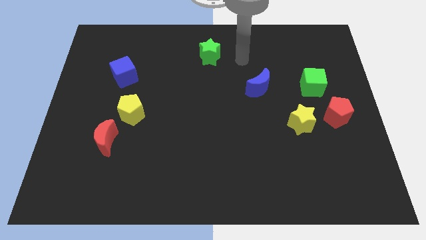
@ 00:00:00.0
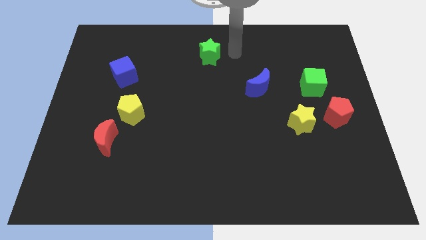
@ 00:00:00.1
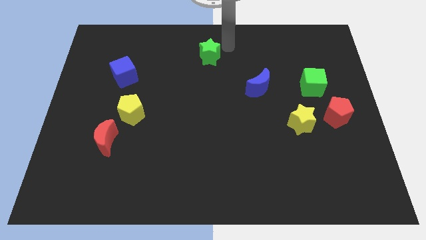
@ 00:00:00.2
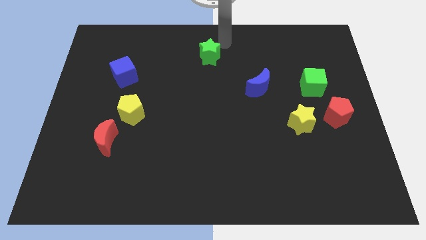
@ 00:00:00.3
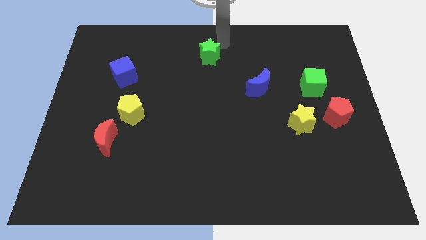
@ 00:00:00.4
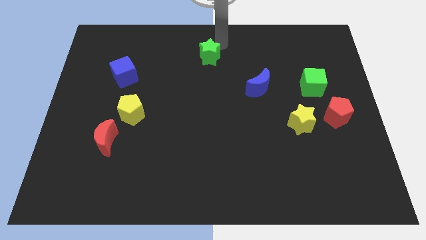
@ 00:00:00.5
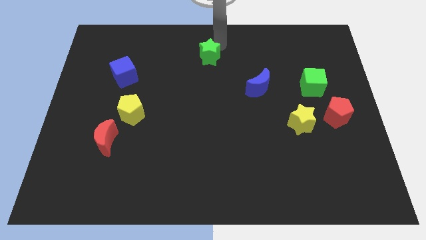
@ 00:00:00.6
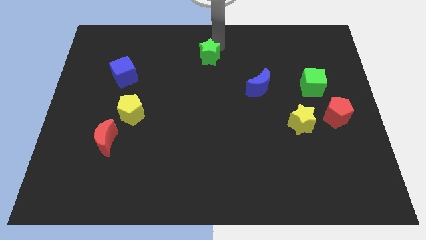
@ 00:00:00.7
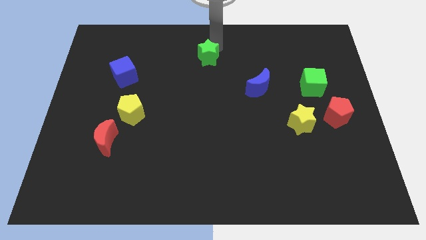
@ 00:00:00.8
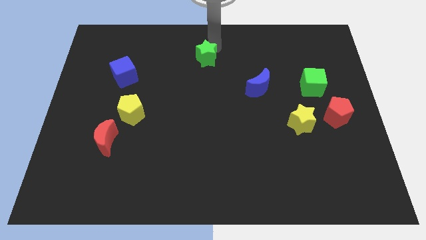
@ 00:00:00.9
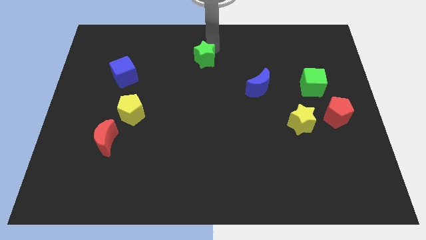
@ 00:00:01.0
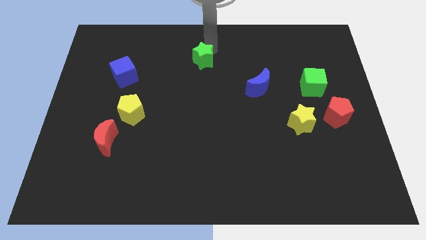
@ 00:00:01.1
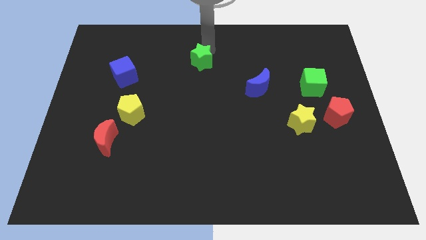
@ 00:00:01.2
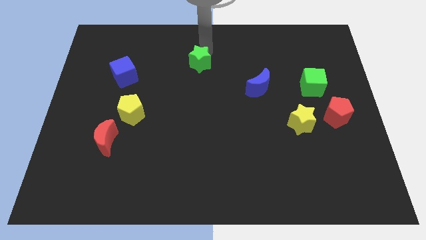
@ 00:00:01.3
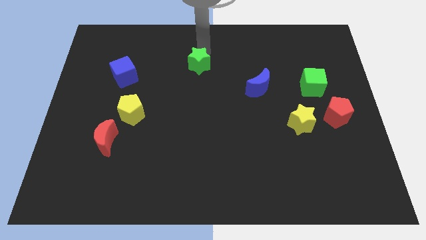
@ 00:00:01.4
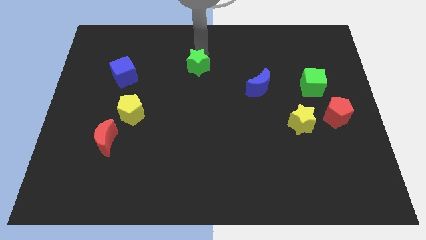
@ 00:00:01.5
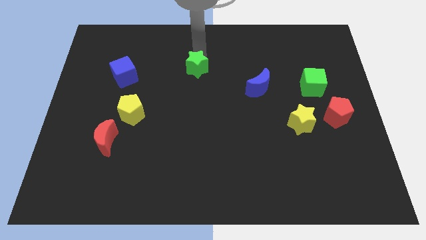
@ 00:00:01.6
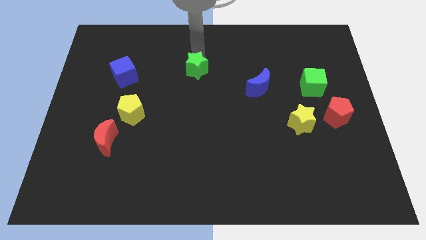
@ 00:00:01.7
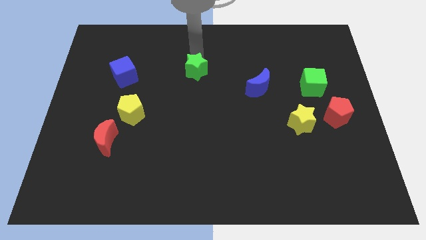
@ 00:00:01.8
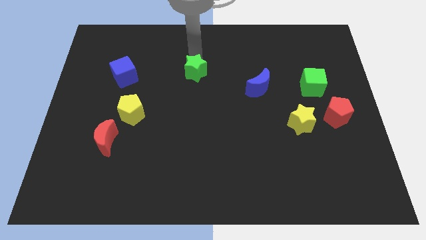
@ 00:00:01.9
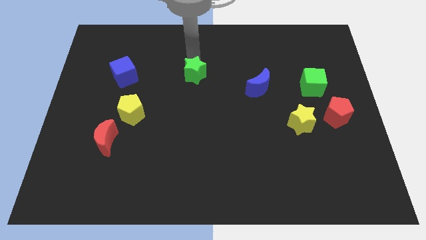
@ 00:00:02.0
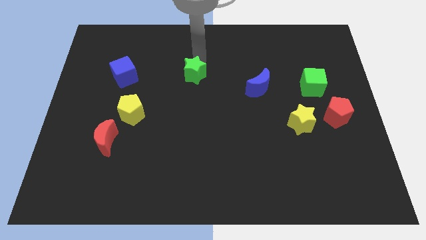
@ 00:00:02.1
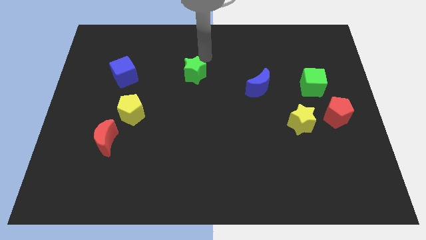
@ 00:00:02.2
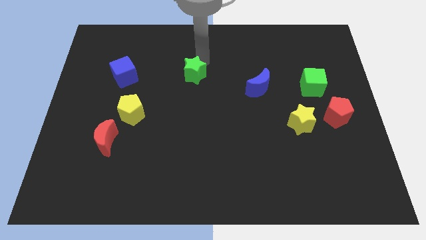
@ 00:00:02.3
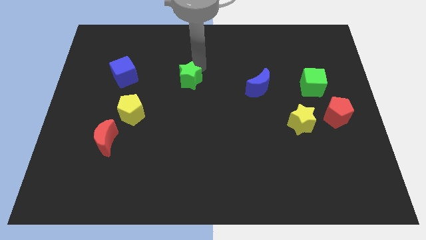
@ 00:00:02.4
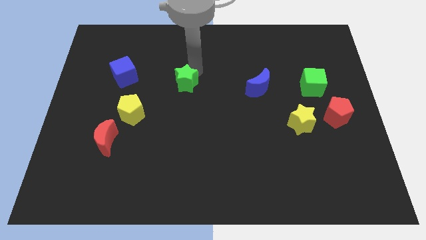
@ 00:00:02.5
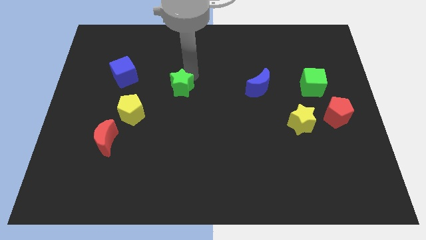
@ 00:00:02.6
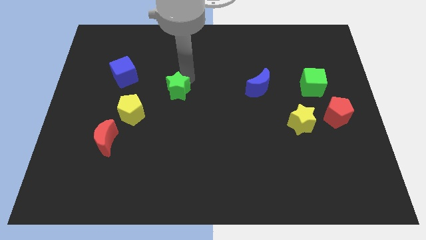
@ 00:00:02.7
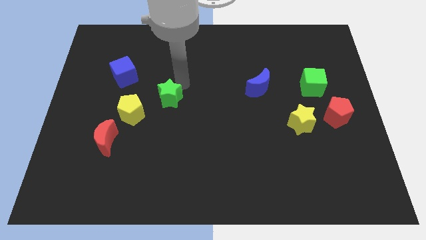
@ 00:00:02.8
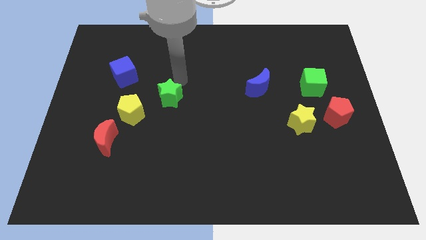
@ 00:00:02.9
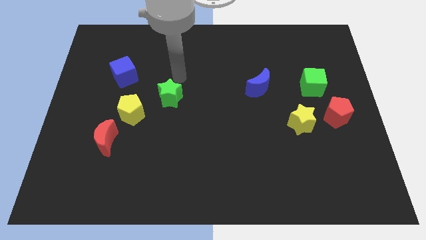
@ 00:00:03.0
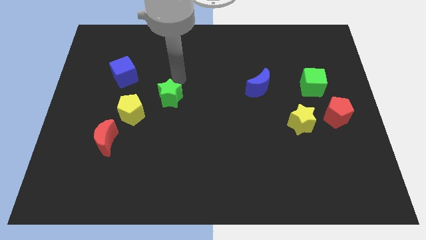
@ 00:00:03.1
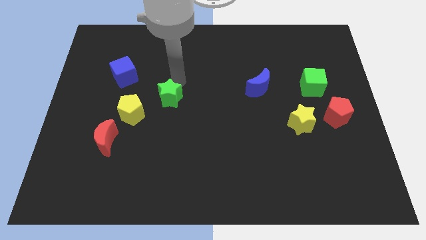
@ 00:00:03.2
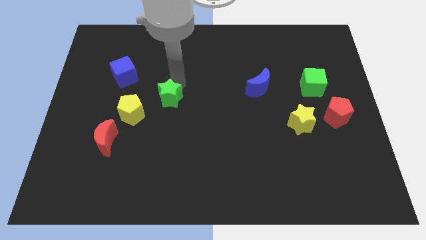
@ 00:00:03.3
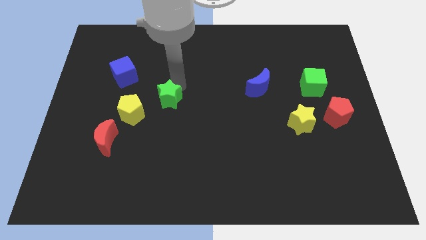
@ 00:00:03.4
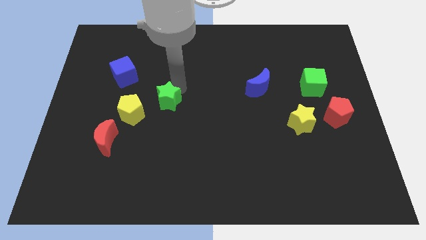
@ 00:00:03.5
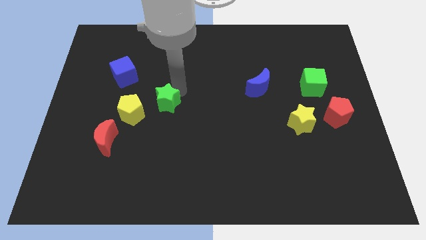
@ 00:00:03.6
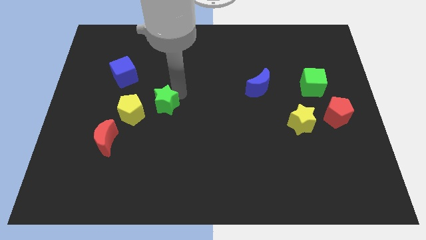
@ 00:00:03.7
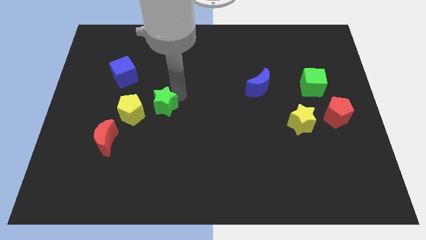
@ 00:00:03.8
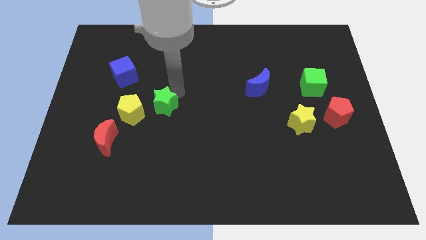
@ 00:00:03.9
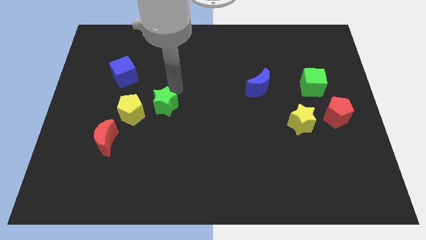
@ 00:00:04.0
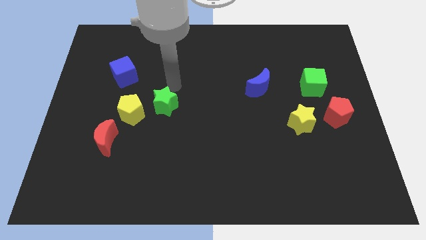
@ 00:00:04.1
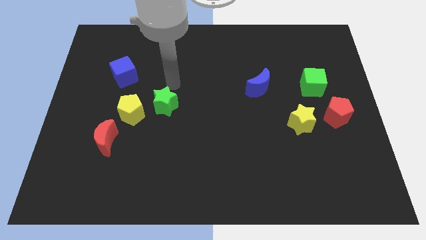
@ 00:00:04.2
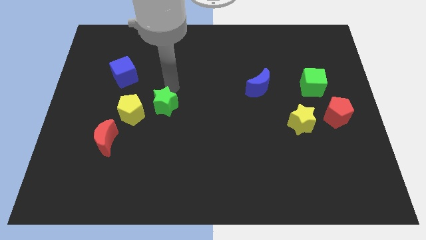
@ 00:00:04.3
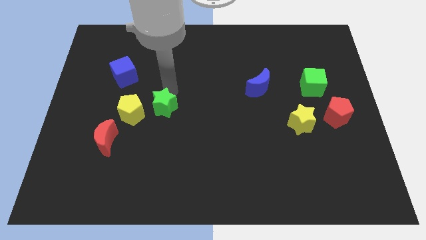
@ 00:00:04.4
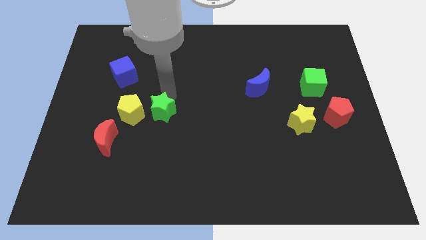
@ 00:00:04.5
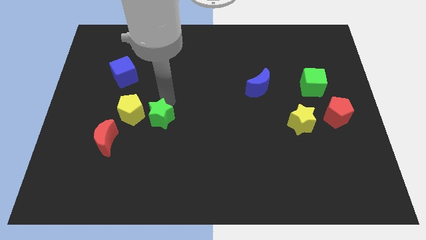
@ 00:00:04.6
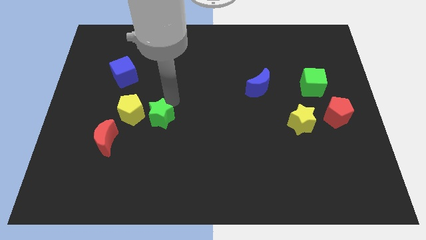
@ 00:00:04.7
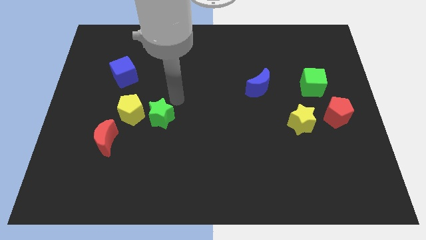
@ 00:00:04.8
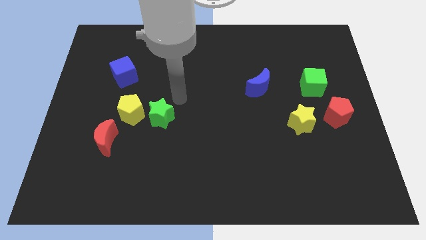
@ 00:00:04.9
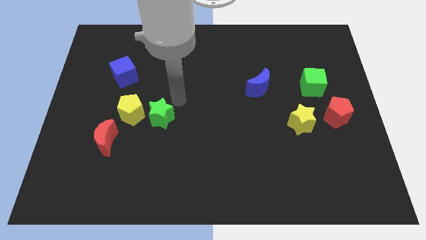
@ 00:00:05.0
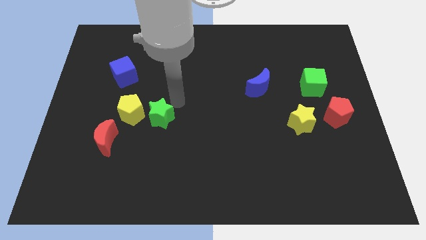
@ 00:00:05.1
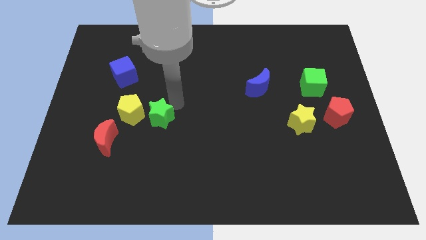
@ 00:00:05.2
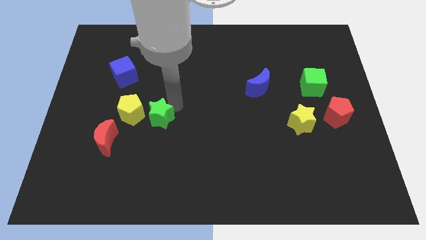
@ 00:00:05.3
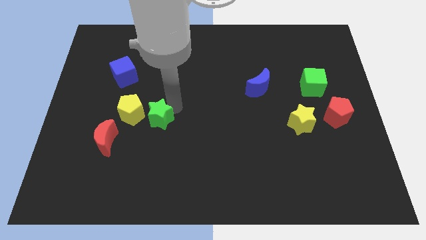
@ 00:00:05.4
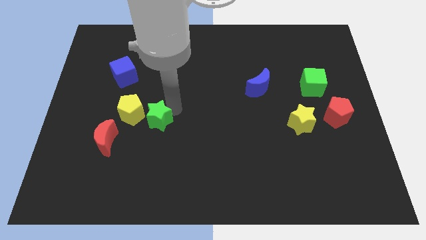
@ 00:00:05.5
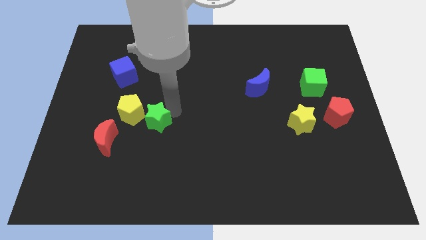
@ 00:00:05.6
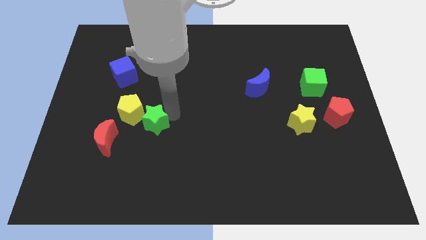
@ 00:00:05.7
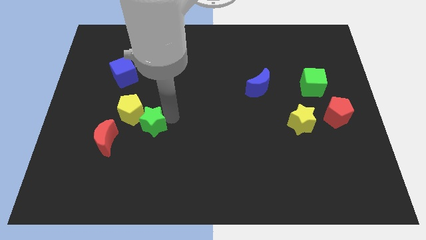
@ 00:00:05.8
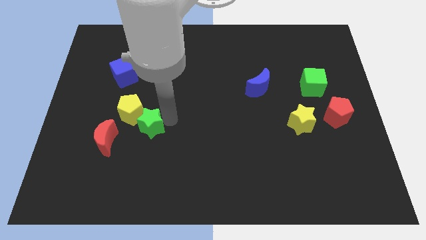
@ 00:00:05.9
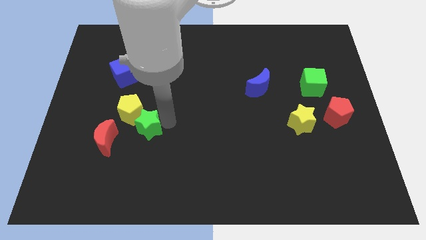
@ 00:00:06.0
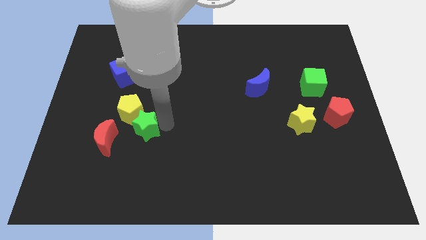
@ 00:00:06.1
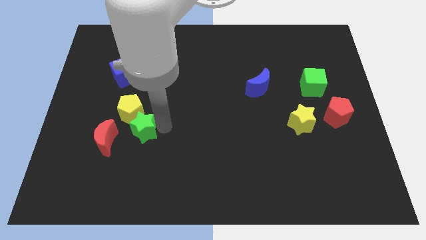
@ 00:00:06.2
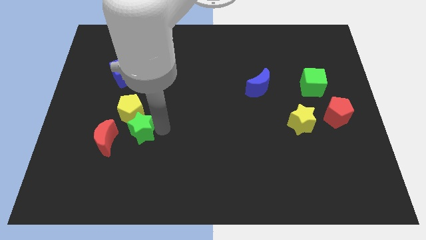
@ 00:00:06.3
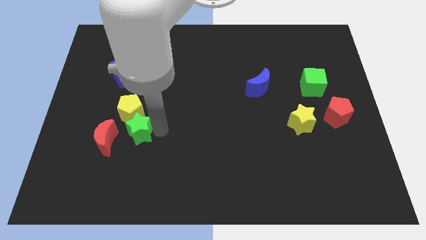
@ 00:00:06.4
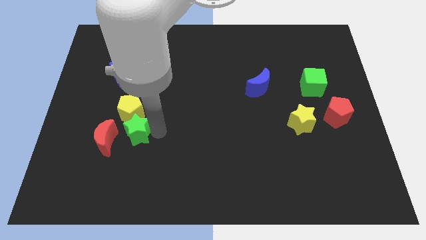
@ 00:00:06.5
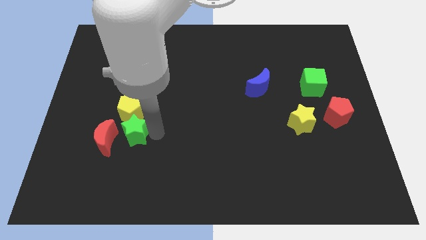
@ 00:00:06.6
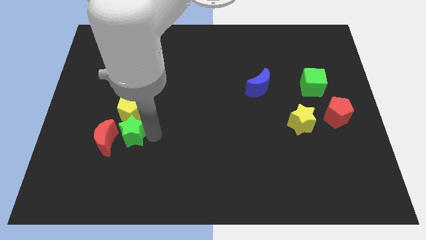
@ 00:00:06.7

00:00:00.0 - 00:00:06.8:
move the green star close to the red moon

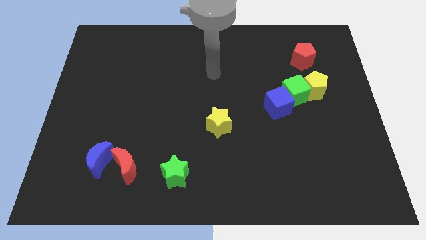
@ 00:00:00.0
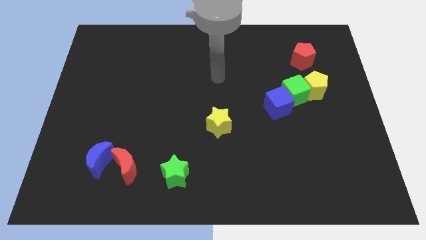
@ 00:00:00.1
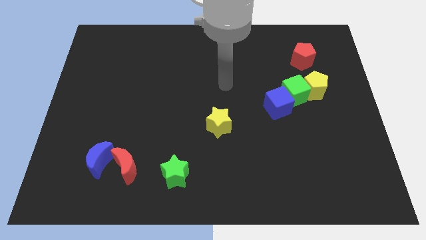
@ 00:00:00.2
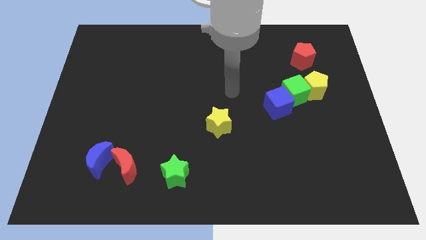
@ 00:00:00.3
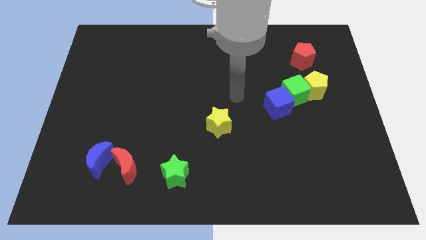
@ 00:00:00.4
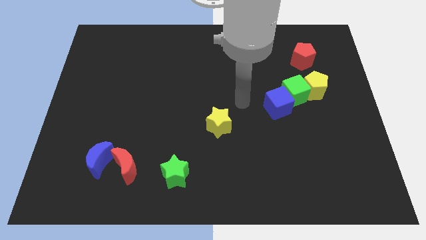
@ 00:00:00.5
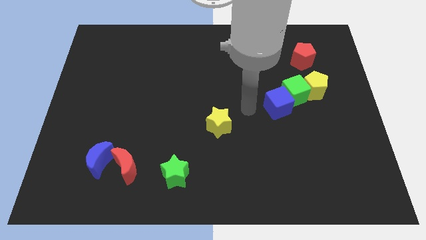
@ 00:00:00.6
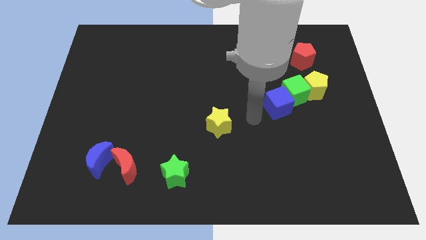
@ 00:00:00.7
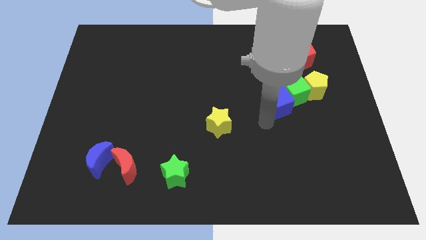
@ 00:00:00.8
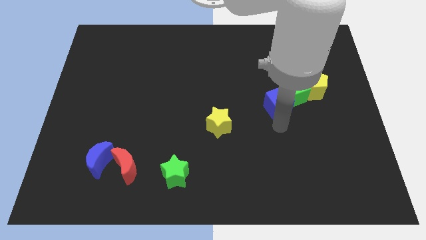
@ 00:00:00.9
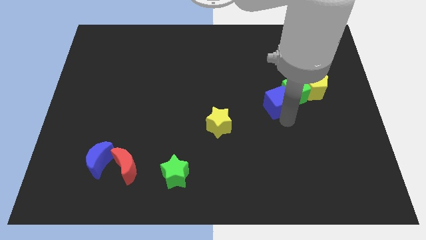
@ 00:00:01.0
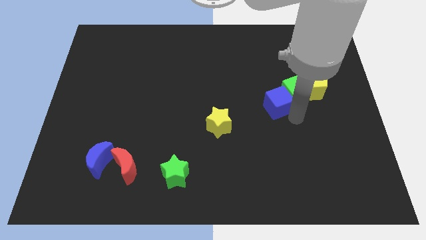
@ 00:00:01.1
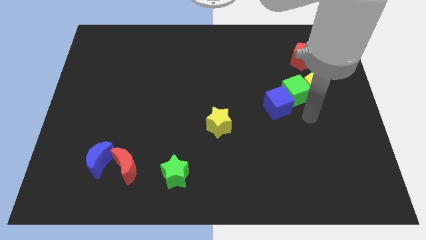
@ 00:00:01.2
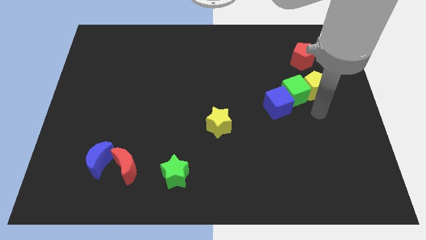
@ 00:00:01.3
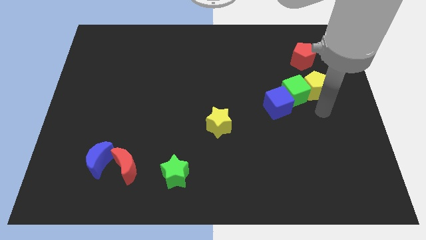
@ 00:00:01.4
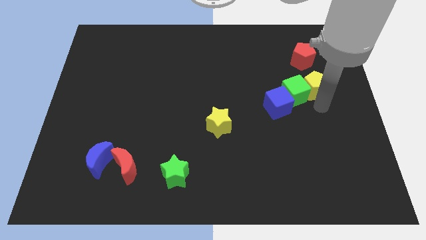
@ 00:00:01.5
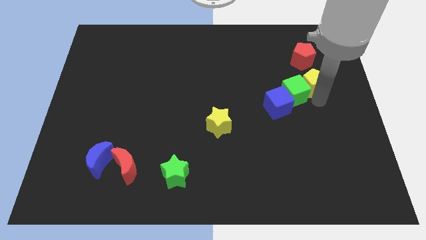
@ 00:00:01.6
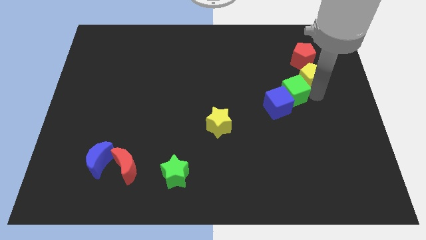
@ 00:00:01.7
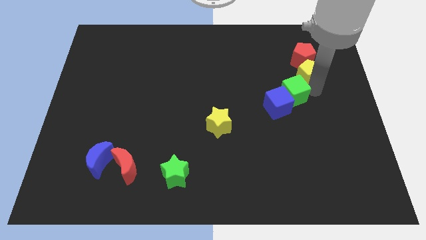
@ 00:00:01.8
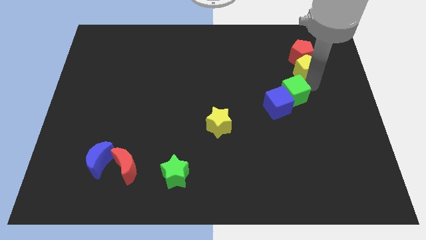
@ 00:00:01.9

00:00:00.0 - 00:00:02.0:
put the yellow pentagon next to the red pentagon
